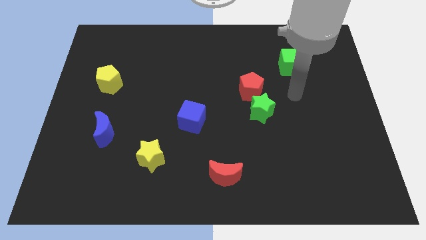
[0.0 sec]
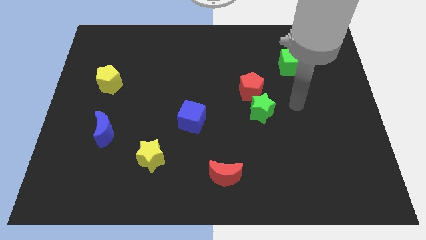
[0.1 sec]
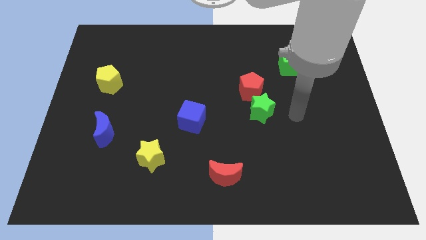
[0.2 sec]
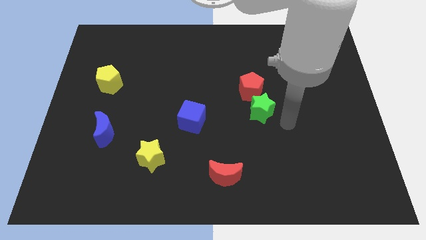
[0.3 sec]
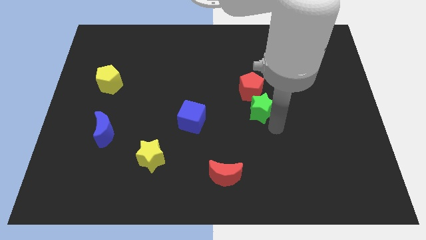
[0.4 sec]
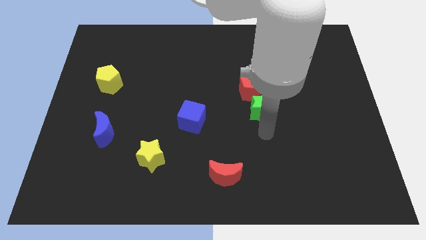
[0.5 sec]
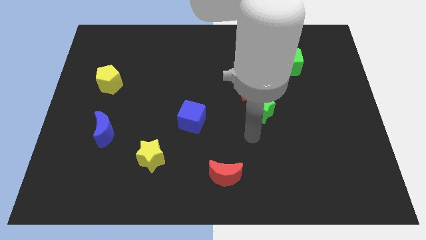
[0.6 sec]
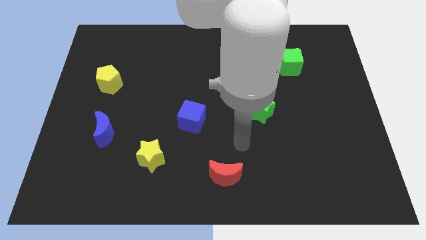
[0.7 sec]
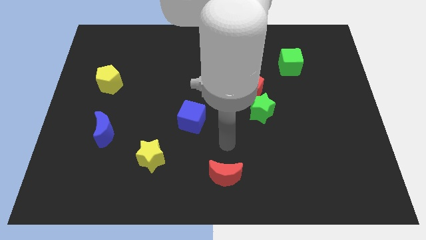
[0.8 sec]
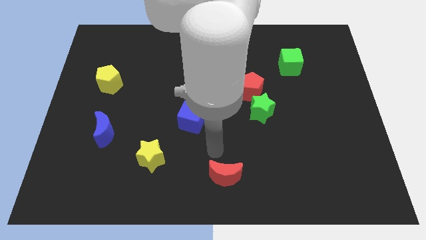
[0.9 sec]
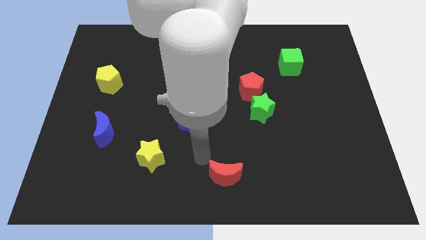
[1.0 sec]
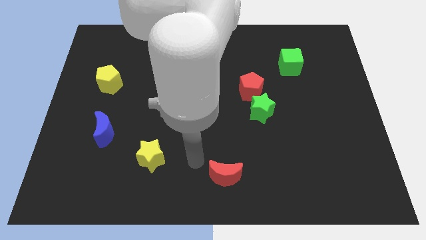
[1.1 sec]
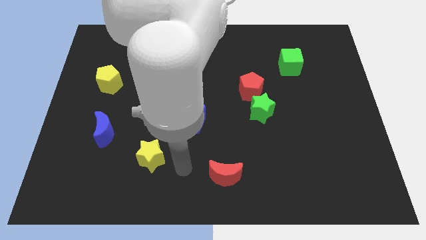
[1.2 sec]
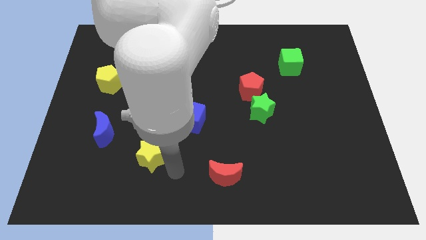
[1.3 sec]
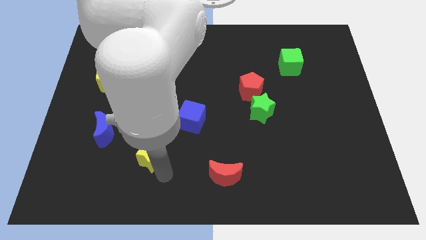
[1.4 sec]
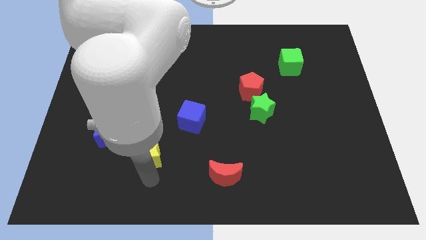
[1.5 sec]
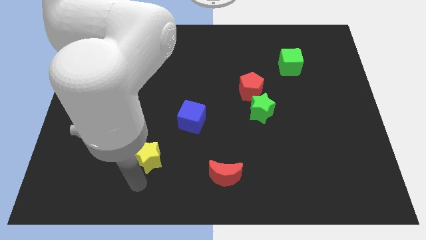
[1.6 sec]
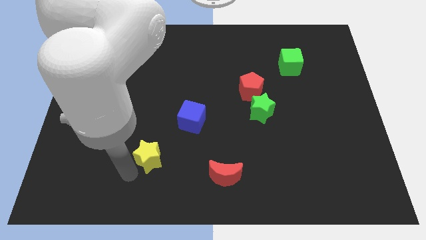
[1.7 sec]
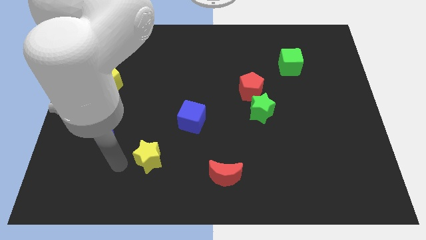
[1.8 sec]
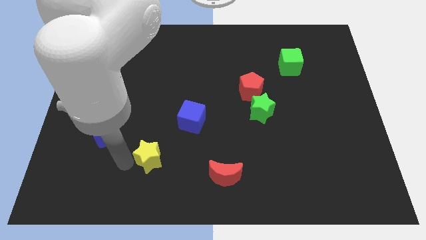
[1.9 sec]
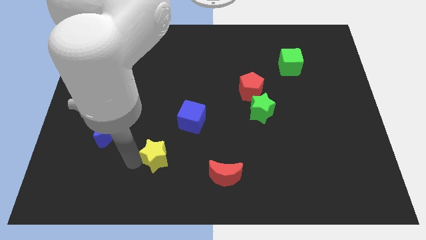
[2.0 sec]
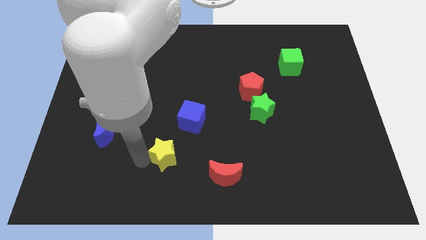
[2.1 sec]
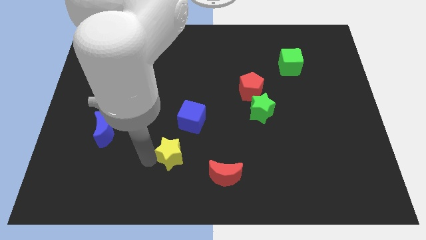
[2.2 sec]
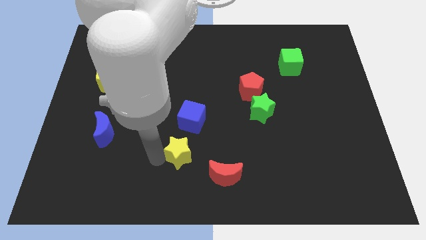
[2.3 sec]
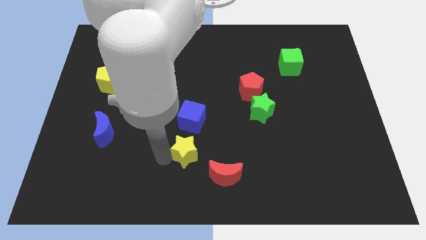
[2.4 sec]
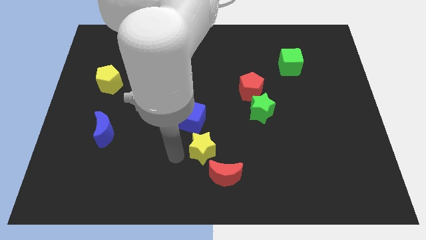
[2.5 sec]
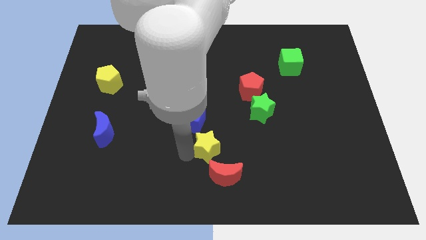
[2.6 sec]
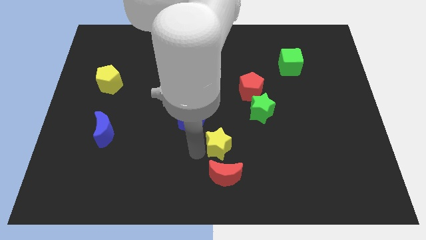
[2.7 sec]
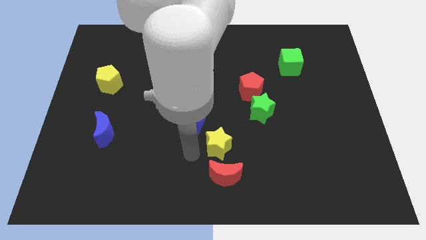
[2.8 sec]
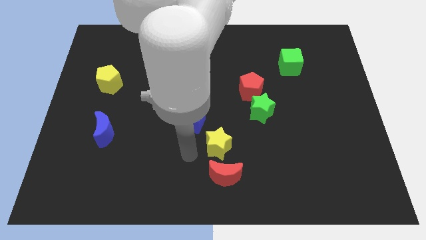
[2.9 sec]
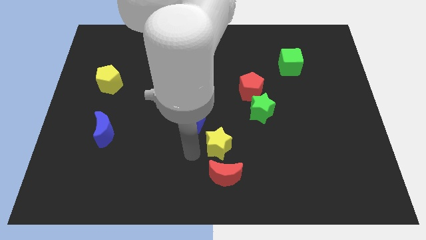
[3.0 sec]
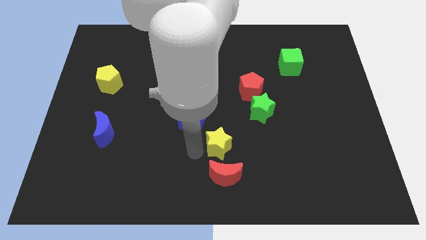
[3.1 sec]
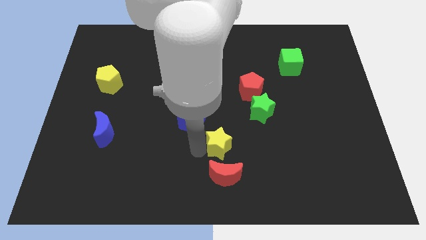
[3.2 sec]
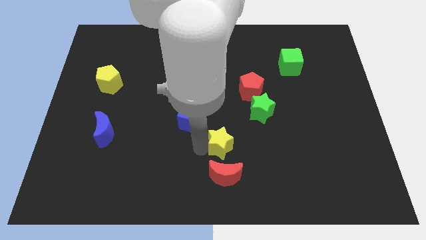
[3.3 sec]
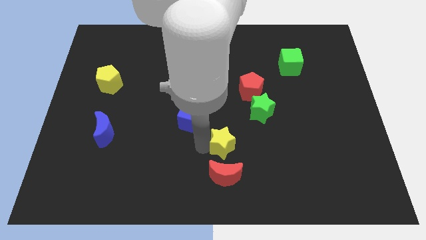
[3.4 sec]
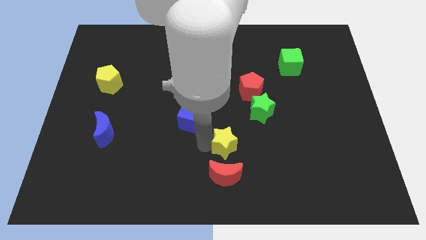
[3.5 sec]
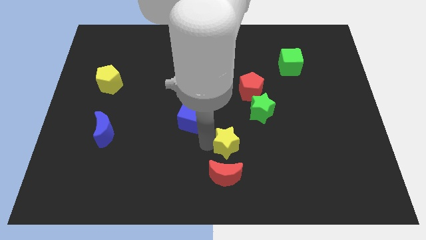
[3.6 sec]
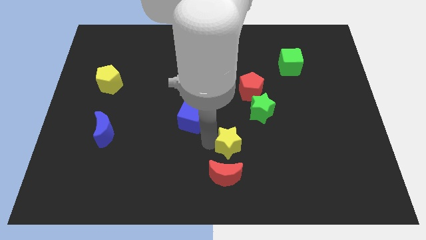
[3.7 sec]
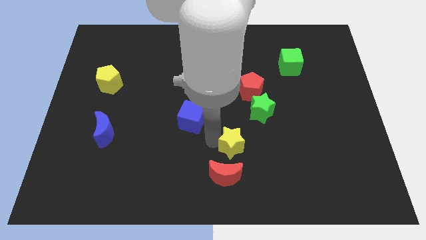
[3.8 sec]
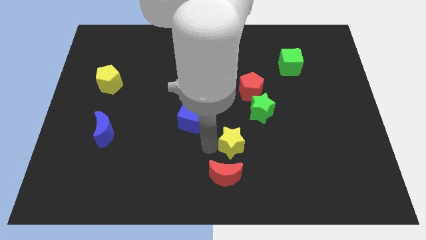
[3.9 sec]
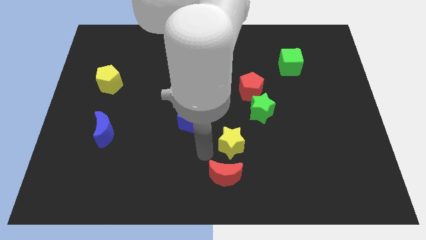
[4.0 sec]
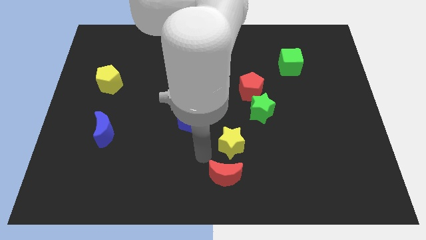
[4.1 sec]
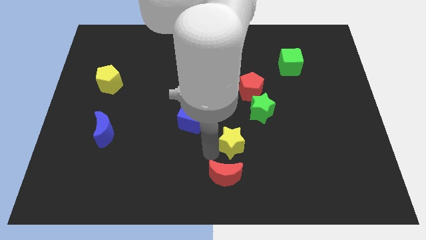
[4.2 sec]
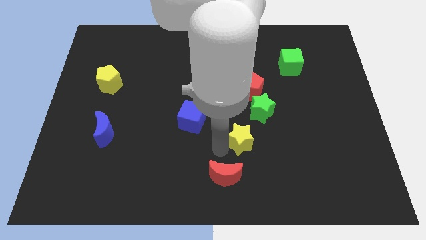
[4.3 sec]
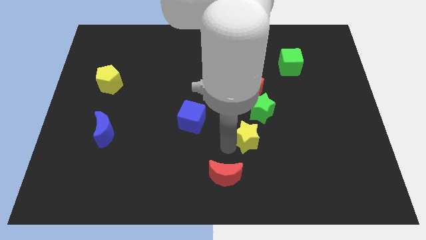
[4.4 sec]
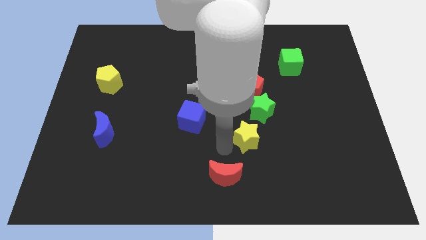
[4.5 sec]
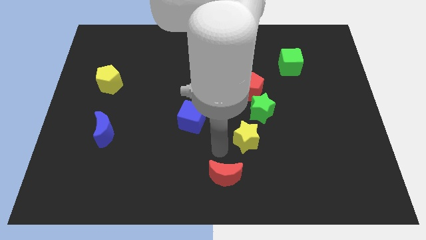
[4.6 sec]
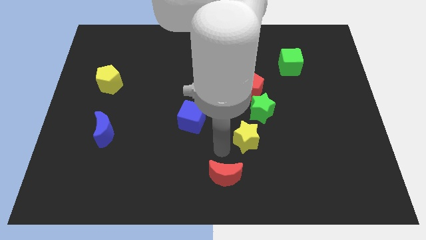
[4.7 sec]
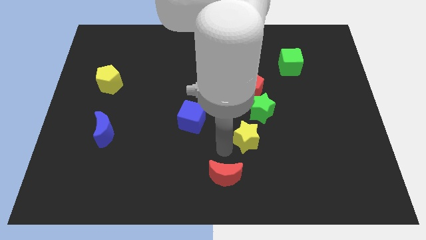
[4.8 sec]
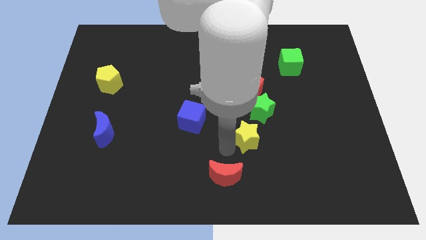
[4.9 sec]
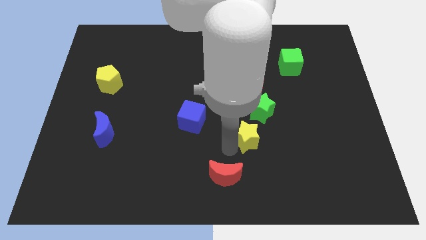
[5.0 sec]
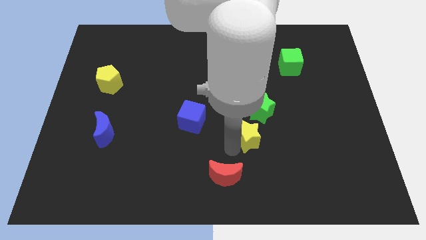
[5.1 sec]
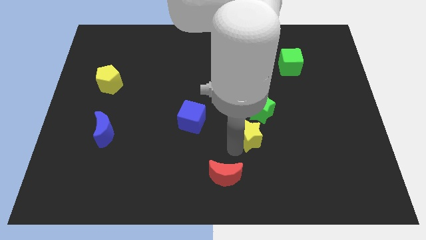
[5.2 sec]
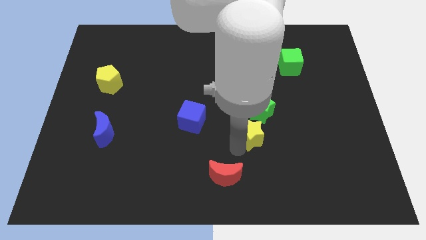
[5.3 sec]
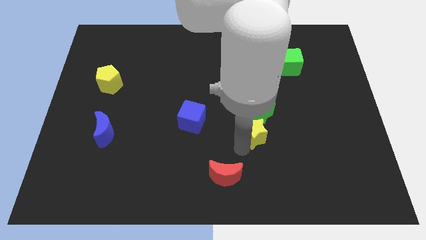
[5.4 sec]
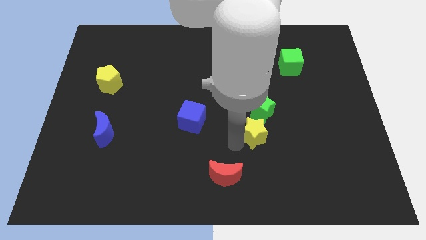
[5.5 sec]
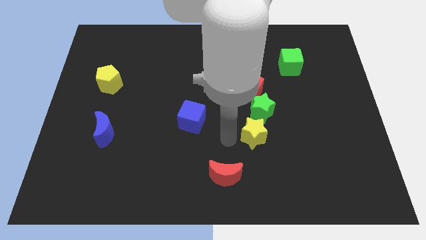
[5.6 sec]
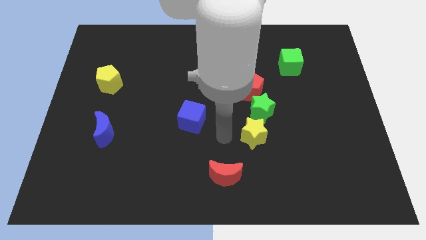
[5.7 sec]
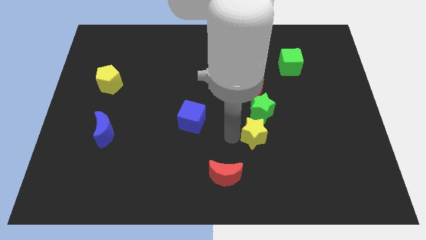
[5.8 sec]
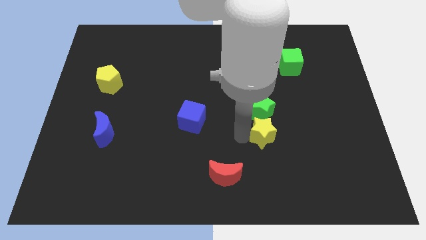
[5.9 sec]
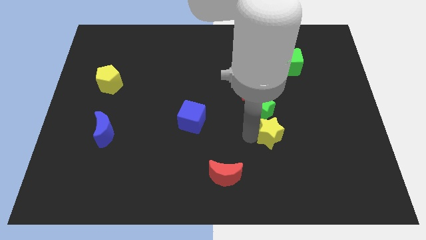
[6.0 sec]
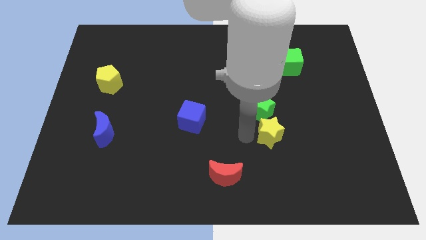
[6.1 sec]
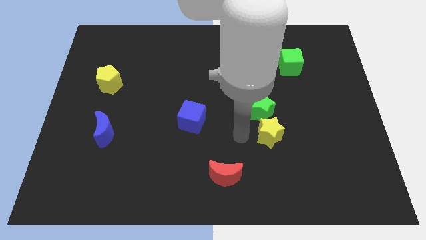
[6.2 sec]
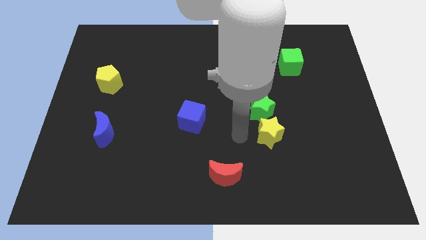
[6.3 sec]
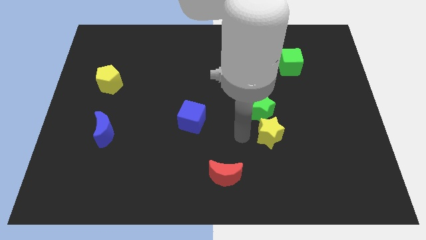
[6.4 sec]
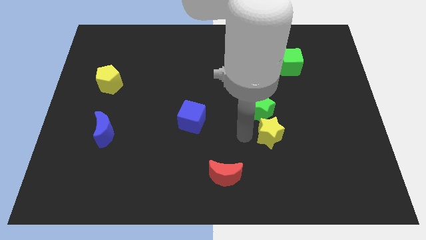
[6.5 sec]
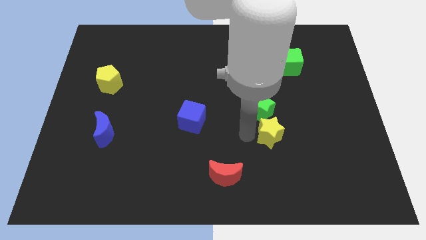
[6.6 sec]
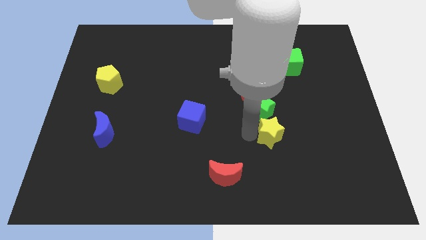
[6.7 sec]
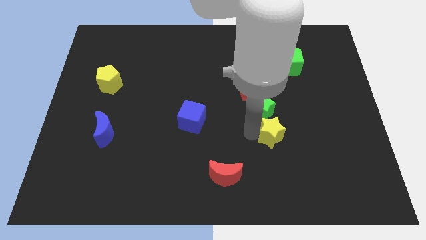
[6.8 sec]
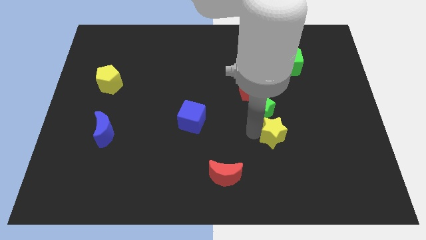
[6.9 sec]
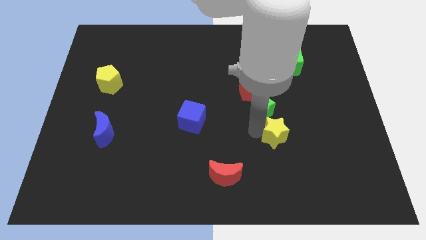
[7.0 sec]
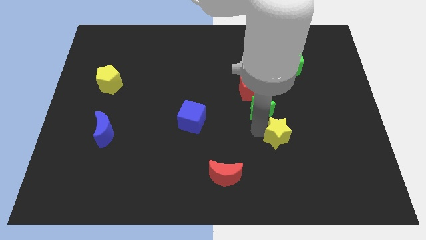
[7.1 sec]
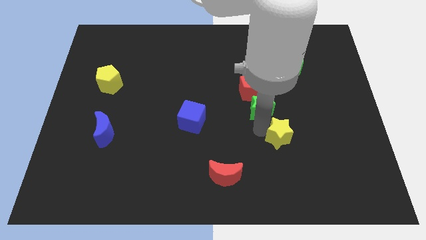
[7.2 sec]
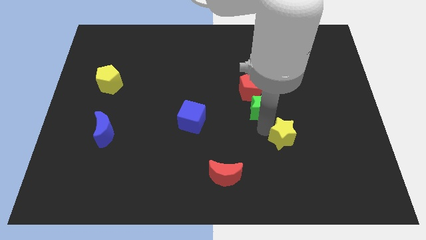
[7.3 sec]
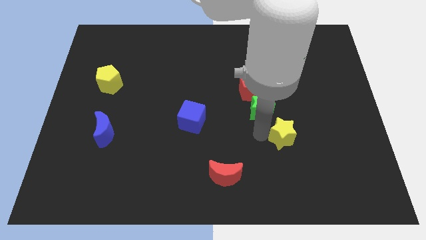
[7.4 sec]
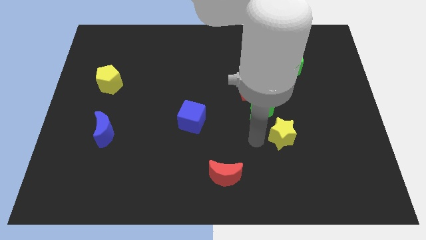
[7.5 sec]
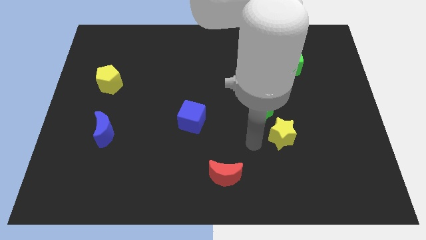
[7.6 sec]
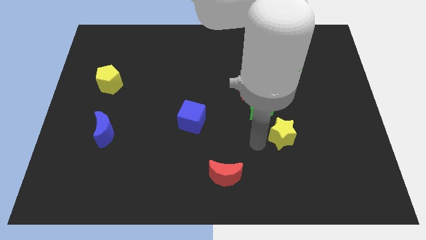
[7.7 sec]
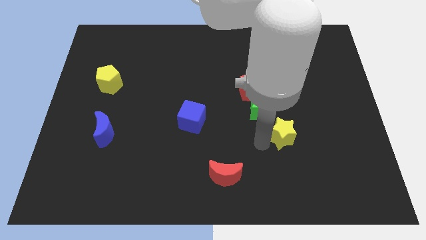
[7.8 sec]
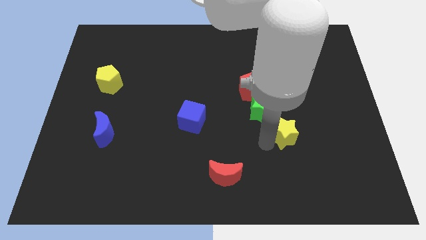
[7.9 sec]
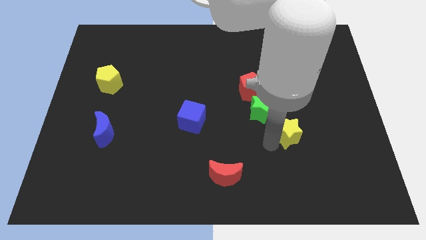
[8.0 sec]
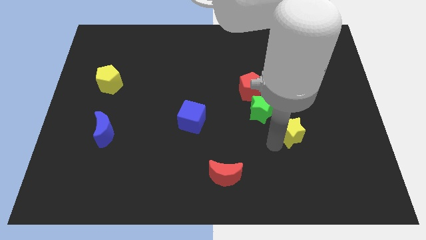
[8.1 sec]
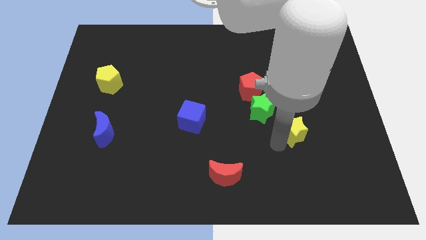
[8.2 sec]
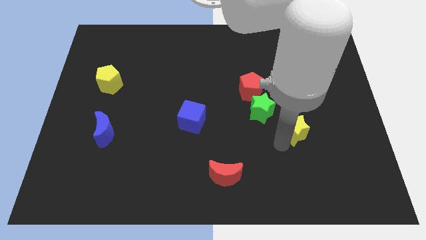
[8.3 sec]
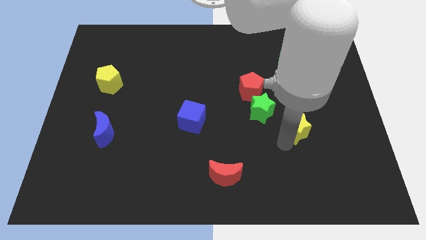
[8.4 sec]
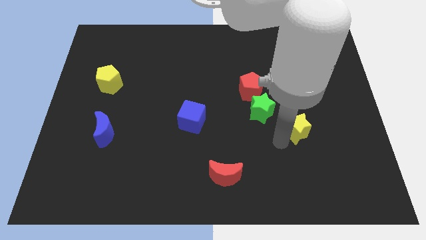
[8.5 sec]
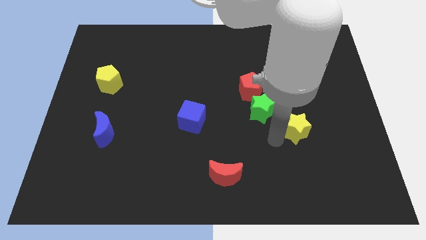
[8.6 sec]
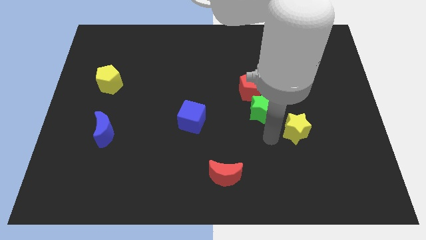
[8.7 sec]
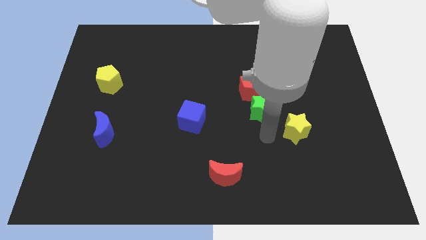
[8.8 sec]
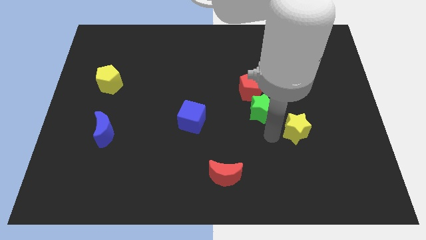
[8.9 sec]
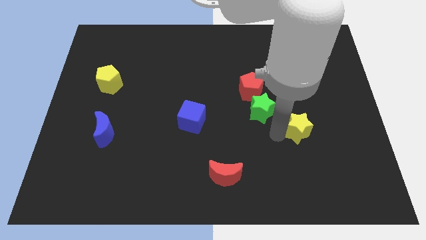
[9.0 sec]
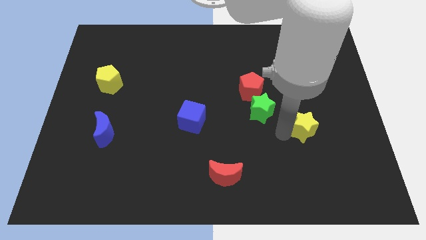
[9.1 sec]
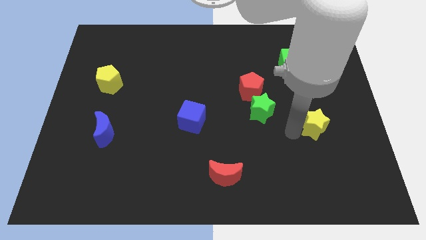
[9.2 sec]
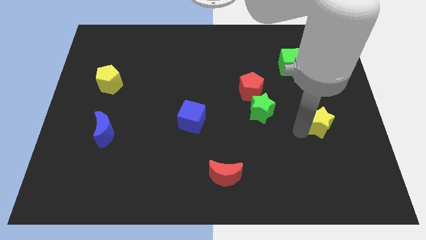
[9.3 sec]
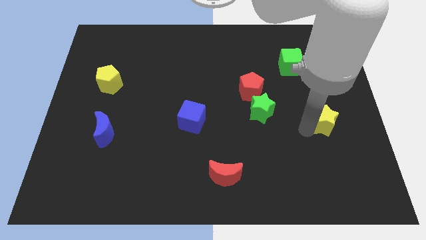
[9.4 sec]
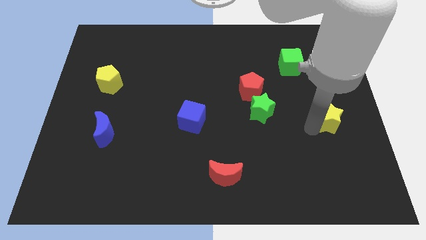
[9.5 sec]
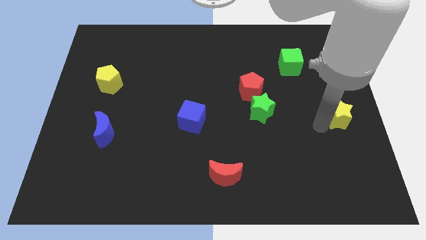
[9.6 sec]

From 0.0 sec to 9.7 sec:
push the yellow star to the right side
